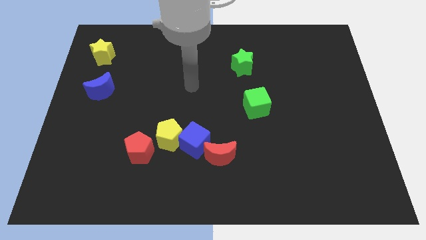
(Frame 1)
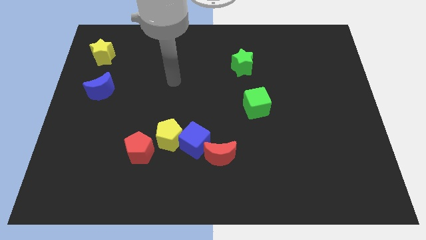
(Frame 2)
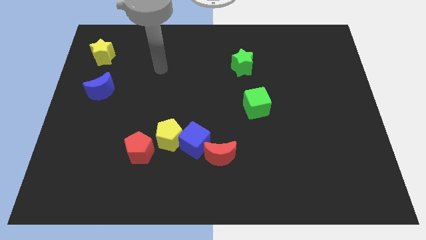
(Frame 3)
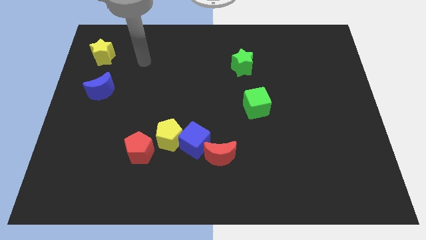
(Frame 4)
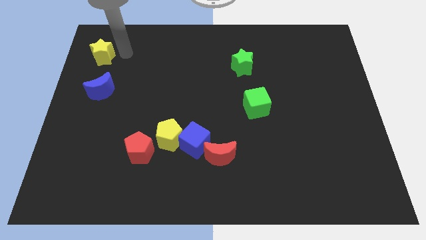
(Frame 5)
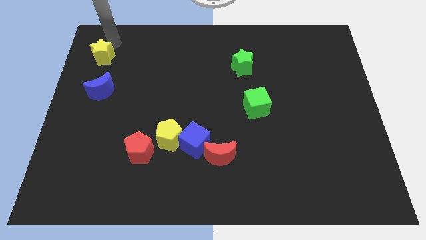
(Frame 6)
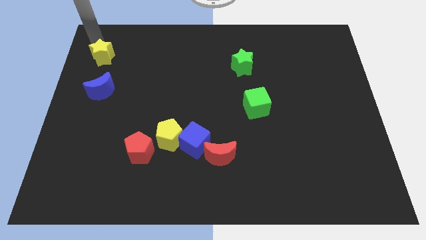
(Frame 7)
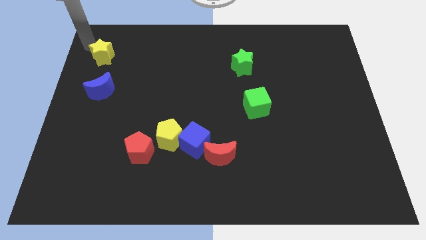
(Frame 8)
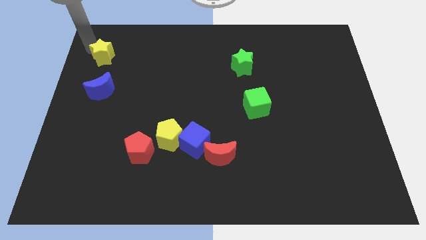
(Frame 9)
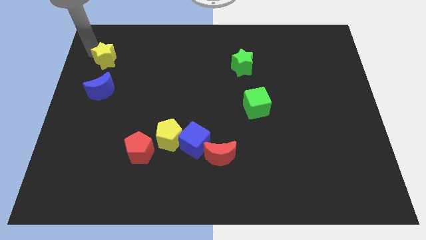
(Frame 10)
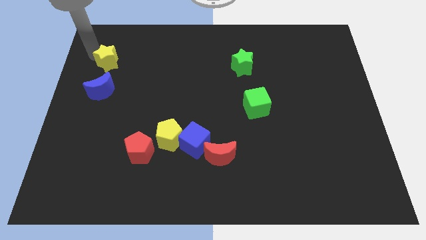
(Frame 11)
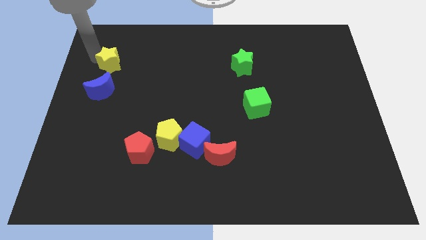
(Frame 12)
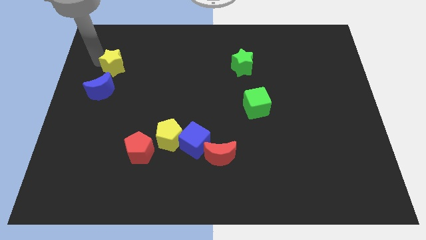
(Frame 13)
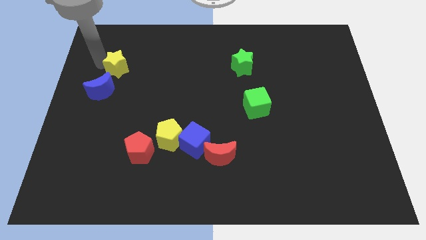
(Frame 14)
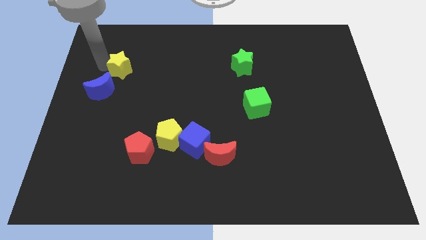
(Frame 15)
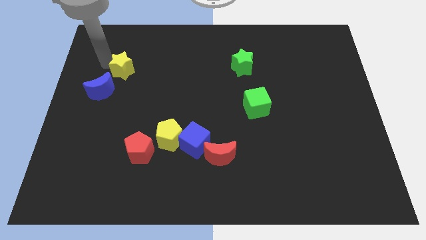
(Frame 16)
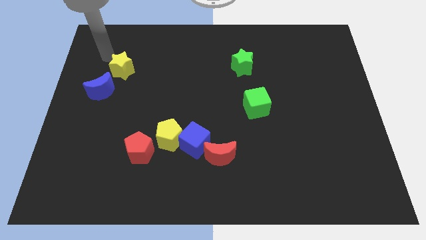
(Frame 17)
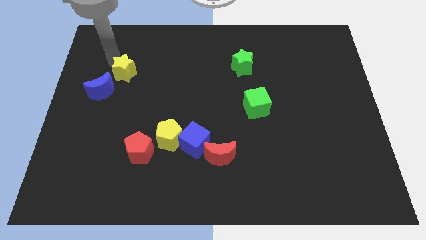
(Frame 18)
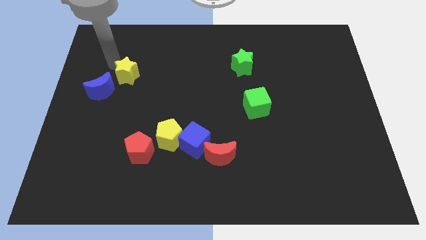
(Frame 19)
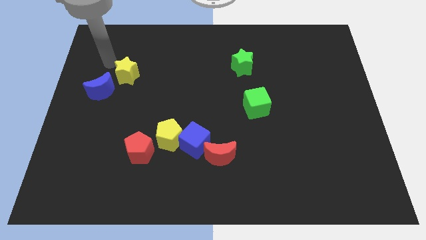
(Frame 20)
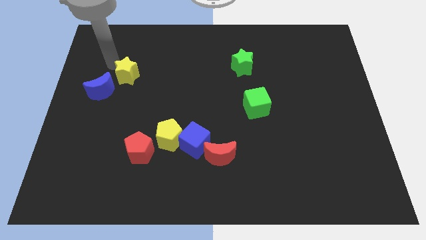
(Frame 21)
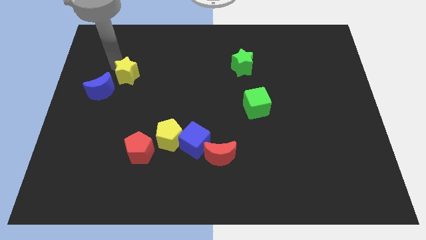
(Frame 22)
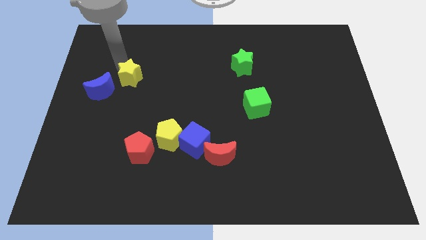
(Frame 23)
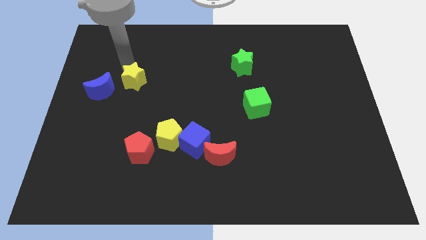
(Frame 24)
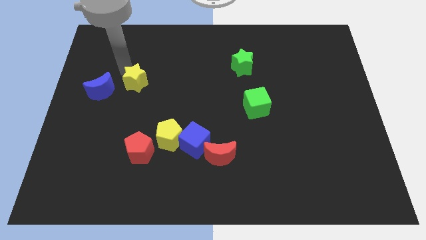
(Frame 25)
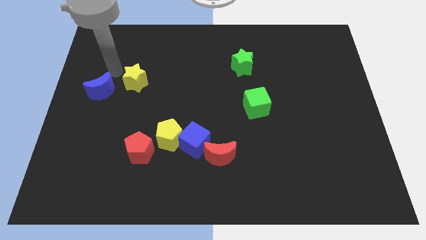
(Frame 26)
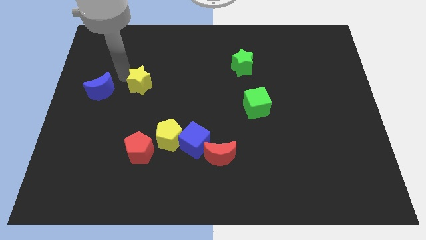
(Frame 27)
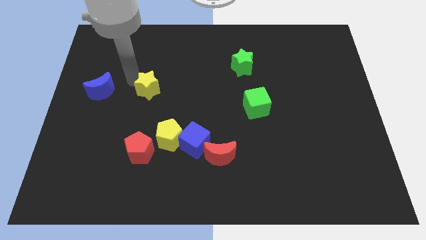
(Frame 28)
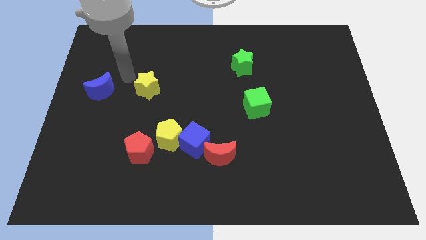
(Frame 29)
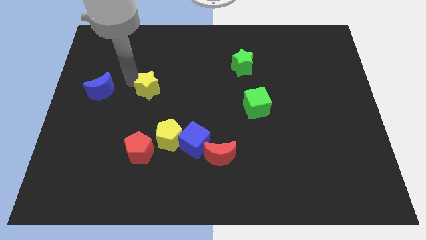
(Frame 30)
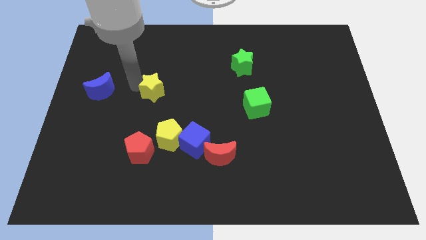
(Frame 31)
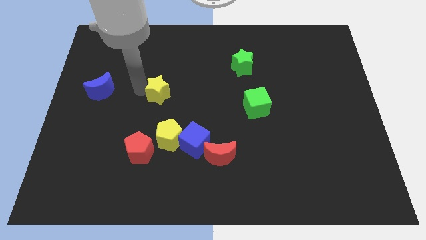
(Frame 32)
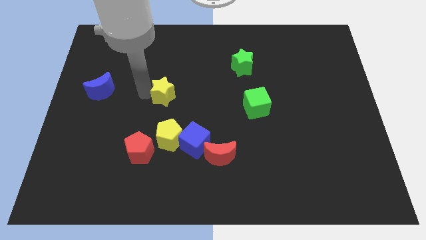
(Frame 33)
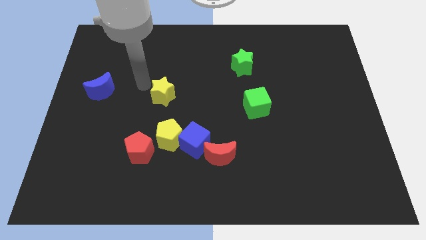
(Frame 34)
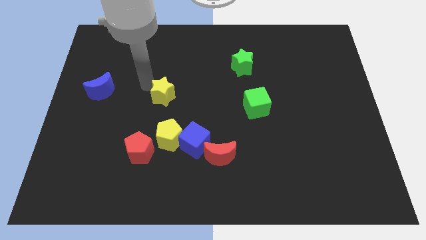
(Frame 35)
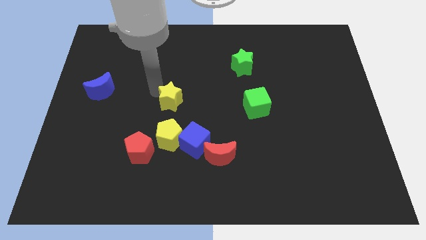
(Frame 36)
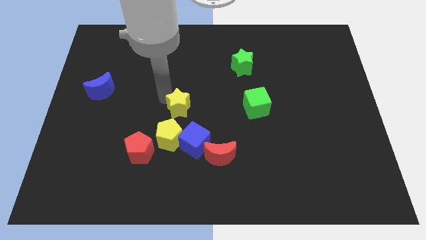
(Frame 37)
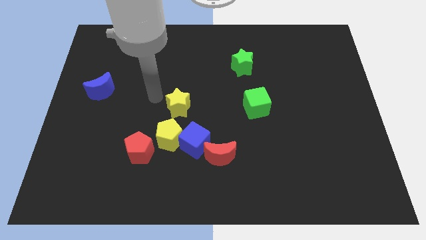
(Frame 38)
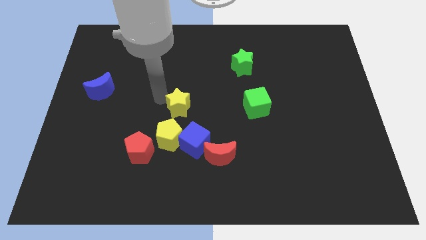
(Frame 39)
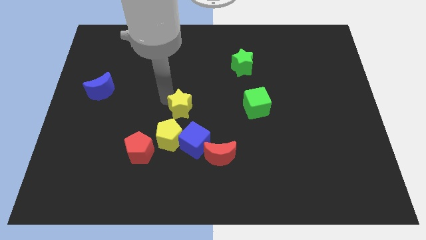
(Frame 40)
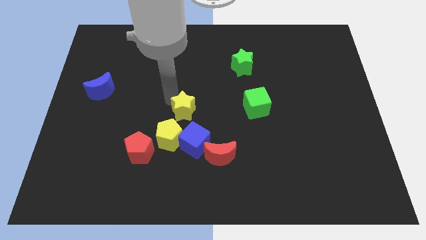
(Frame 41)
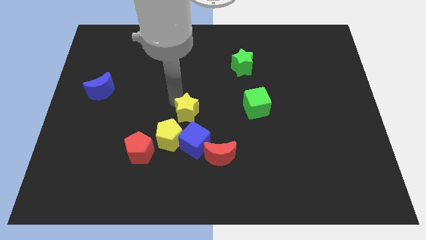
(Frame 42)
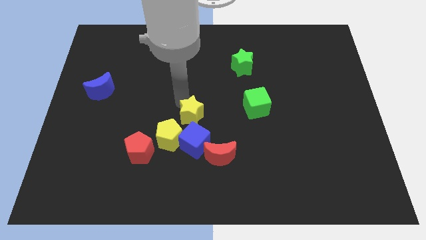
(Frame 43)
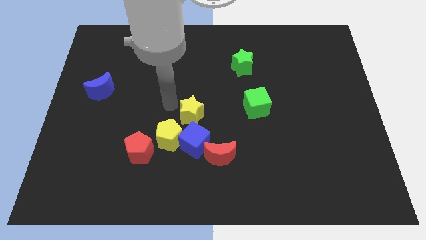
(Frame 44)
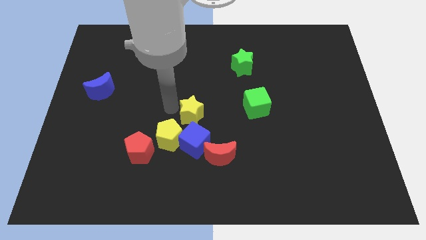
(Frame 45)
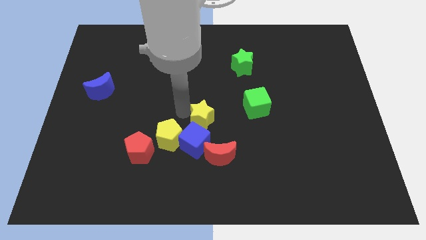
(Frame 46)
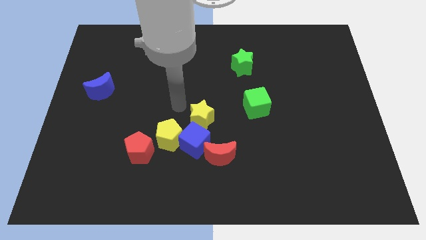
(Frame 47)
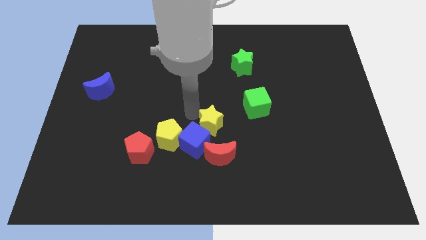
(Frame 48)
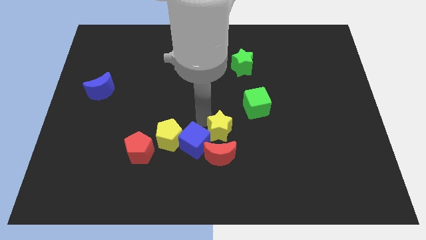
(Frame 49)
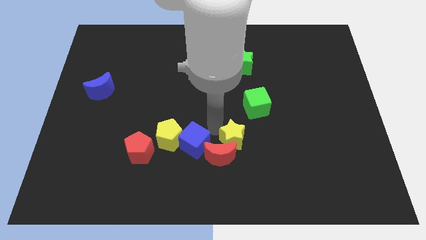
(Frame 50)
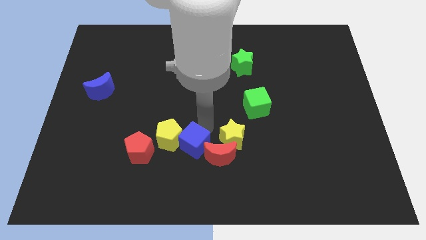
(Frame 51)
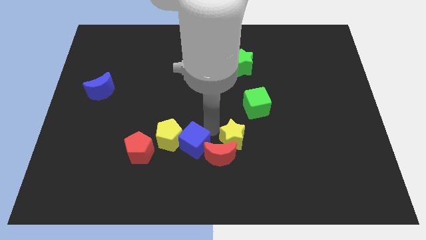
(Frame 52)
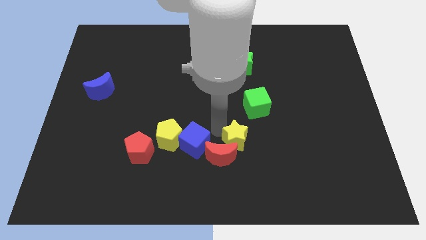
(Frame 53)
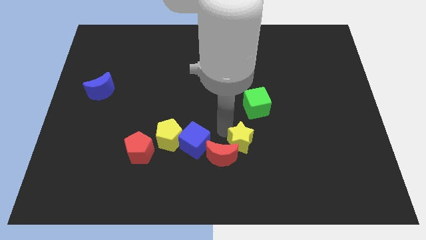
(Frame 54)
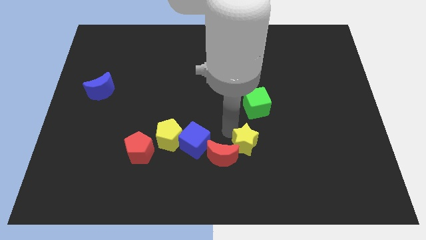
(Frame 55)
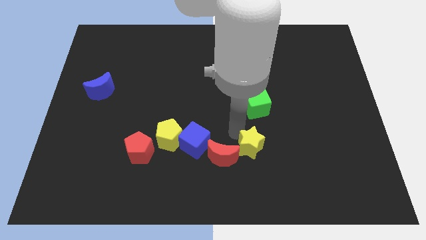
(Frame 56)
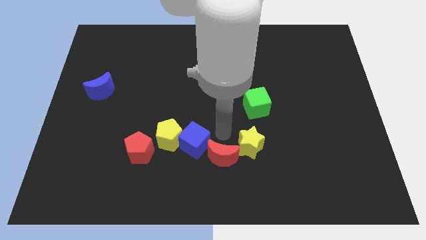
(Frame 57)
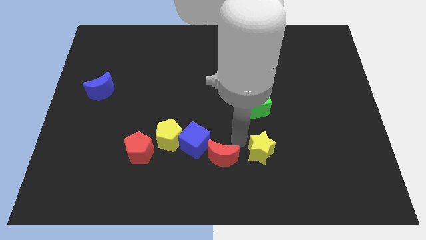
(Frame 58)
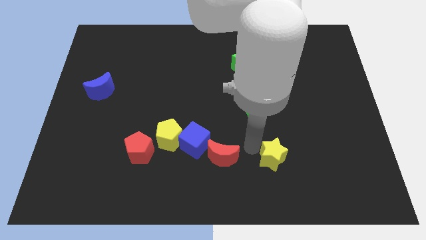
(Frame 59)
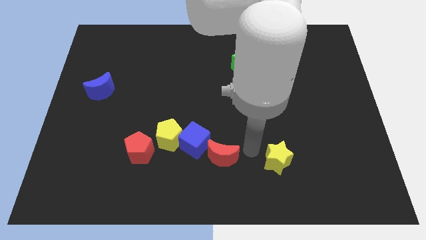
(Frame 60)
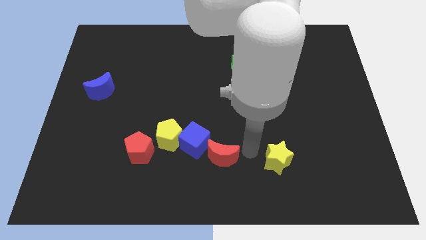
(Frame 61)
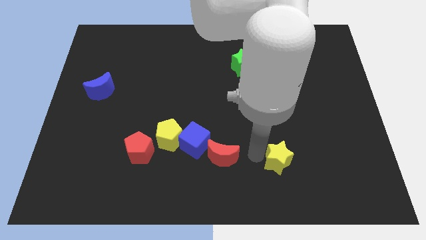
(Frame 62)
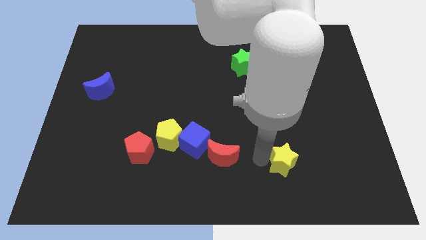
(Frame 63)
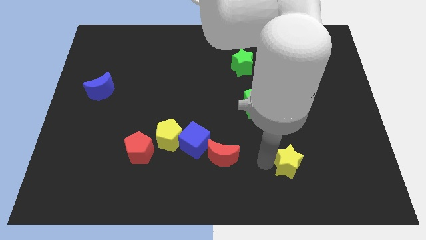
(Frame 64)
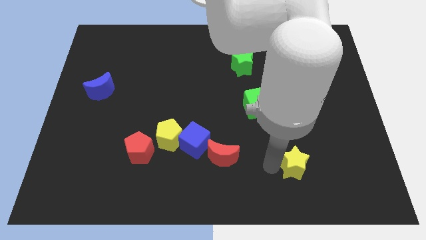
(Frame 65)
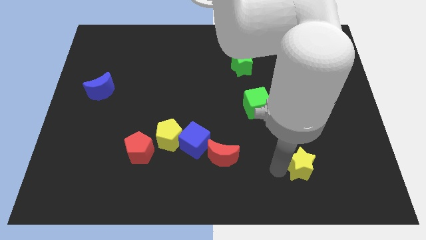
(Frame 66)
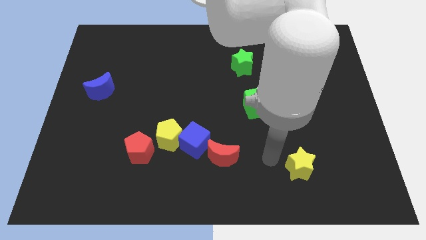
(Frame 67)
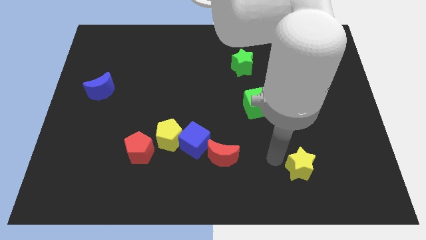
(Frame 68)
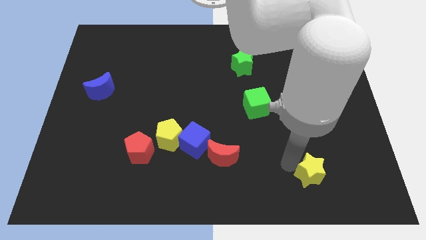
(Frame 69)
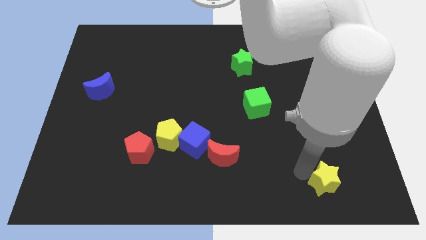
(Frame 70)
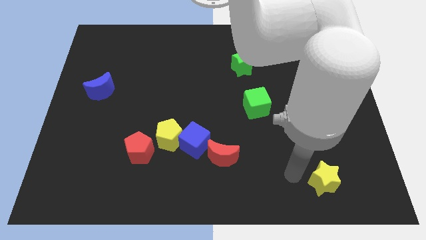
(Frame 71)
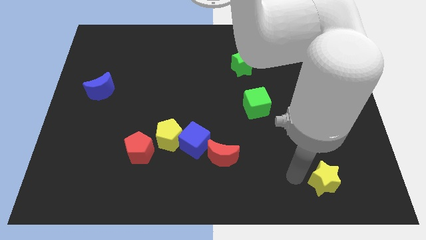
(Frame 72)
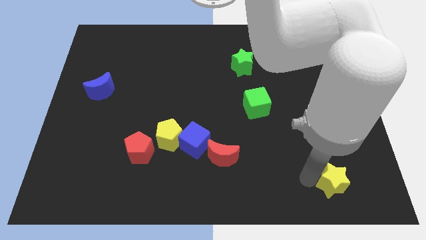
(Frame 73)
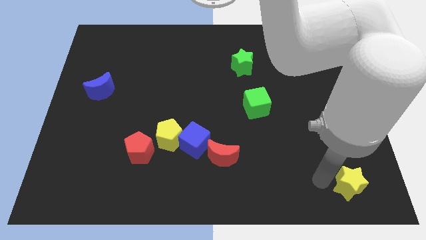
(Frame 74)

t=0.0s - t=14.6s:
slide the yellow star to the bottom right of the board
